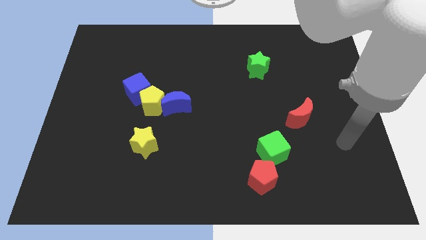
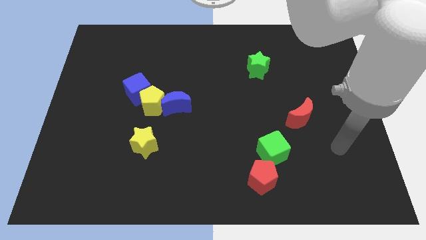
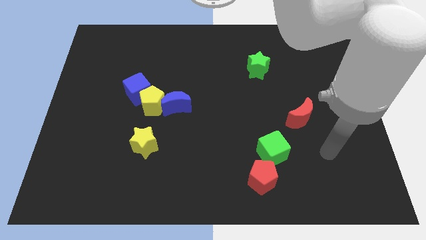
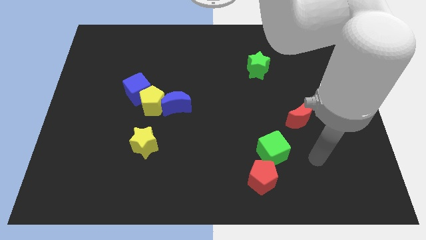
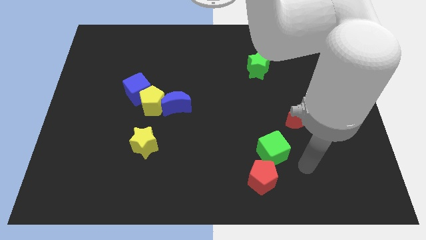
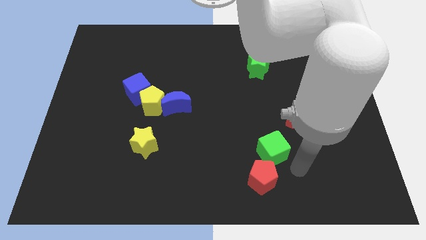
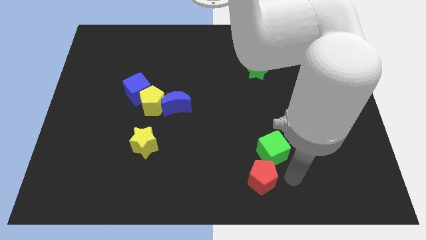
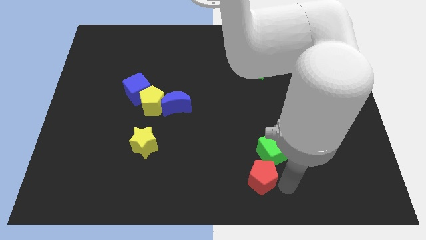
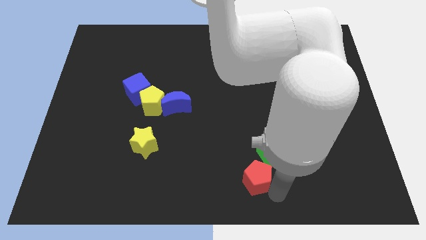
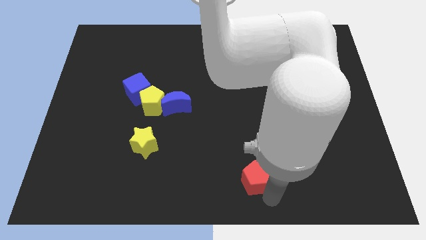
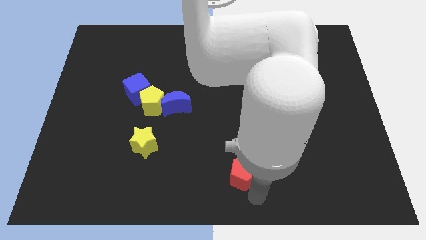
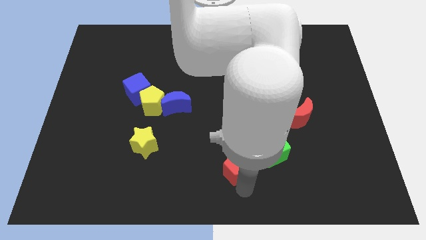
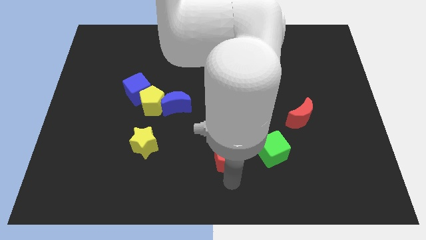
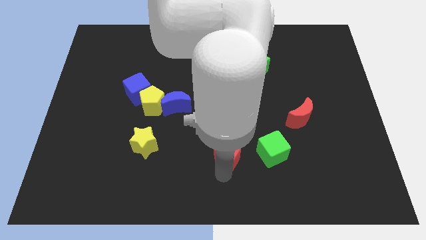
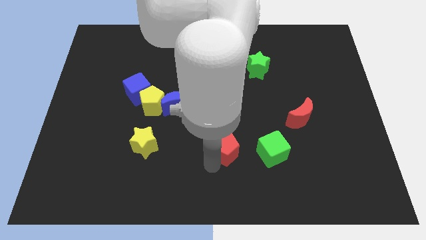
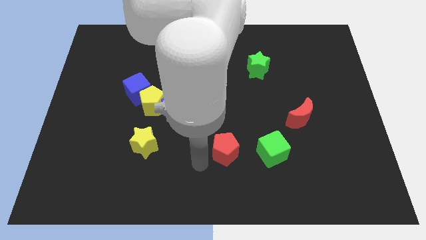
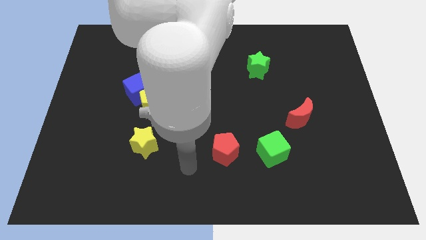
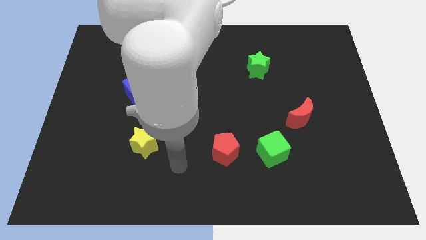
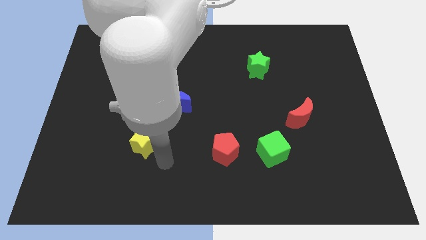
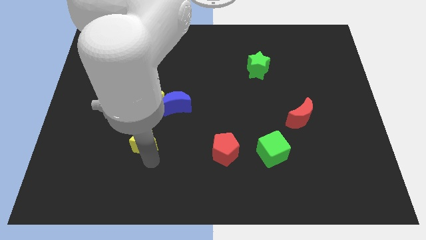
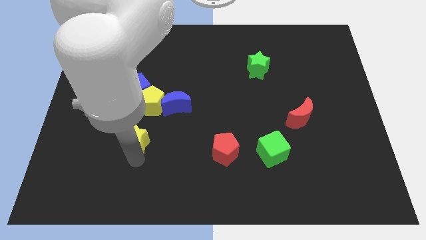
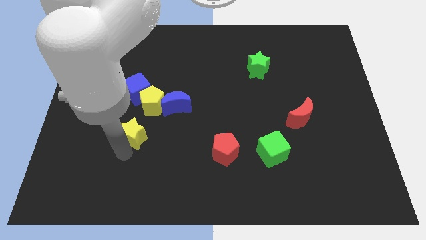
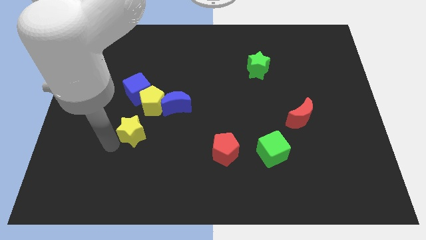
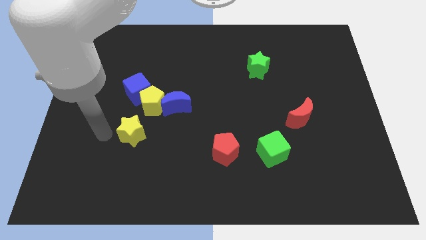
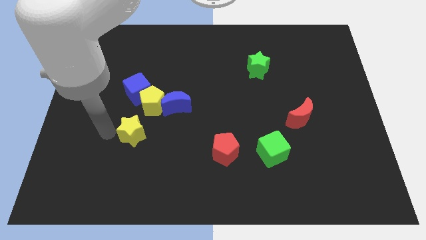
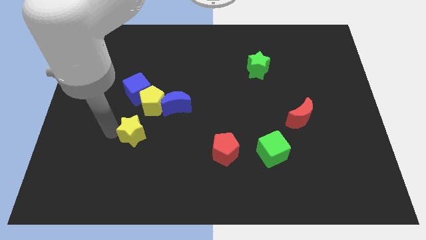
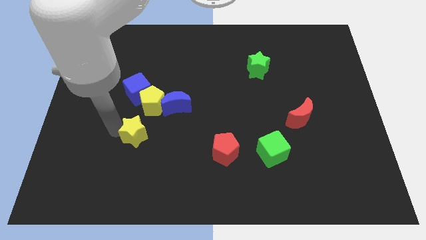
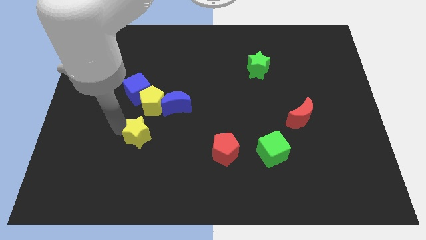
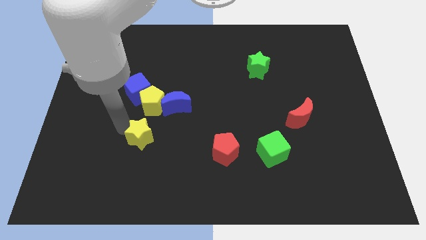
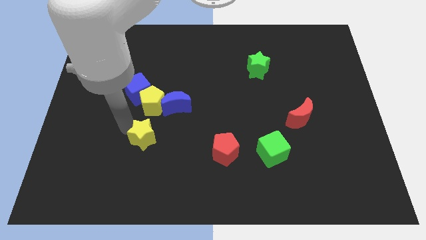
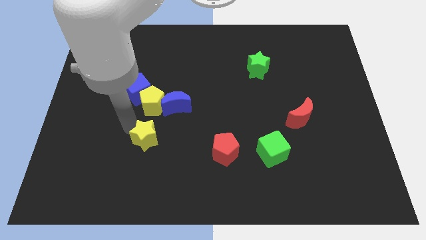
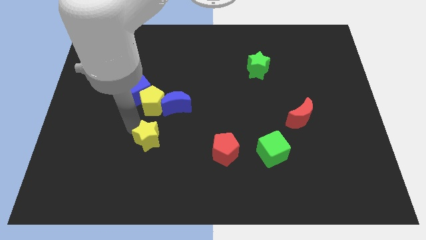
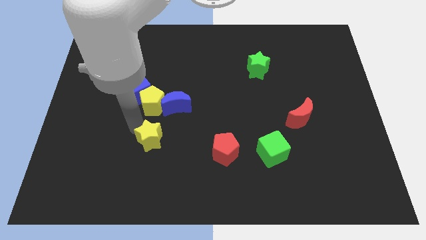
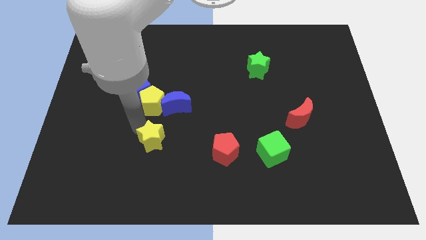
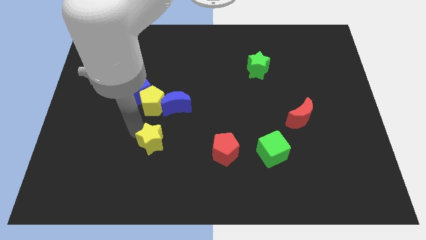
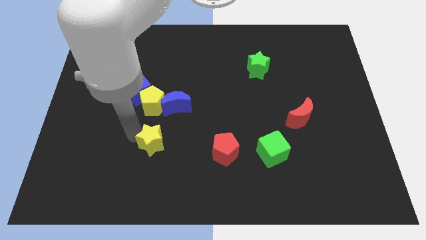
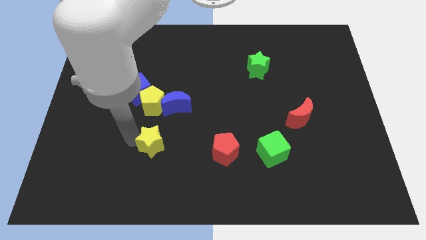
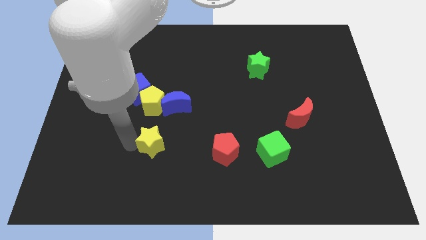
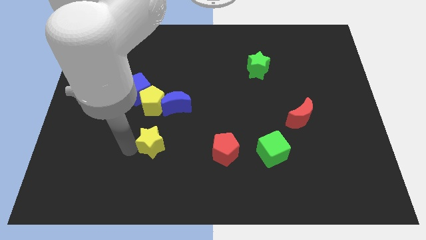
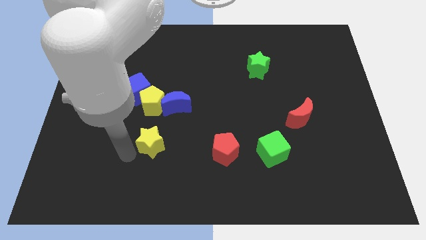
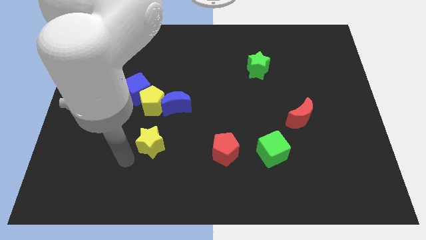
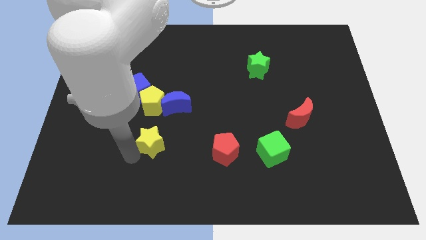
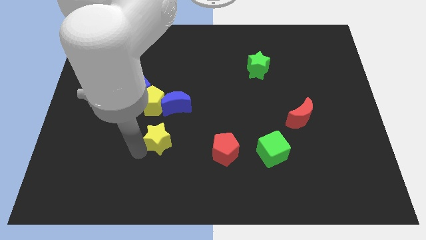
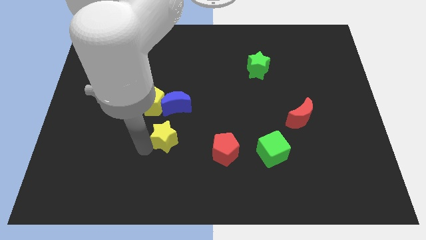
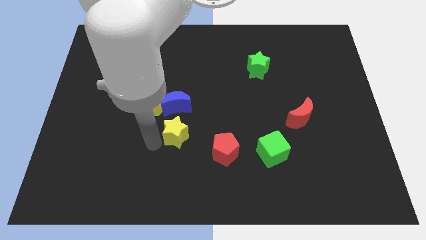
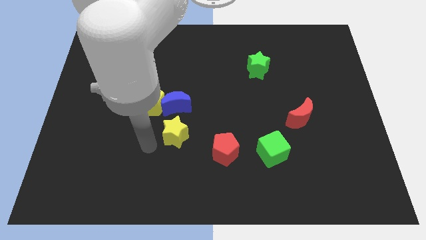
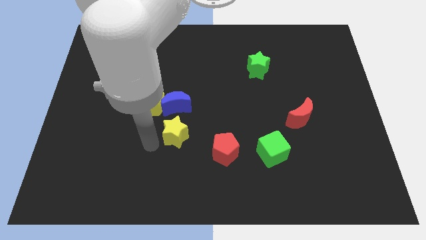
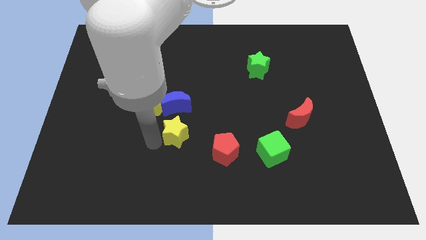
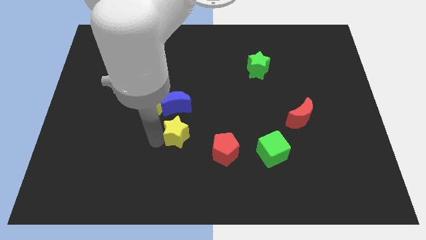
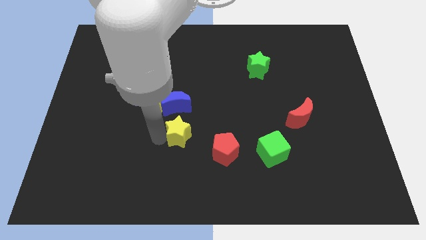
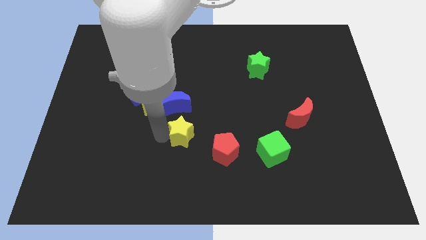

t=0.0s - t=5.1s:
push the yellow star diagonally down and to the right of the blue moon

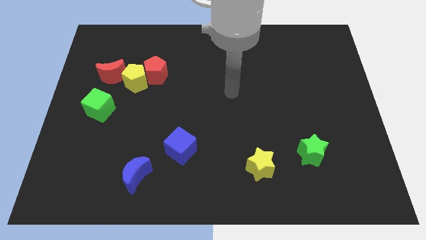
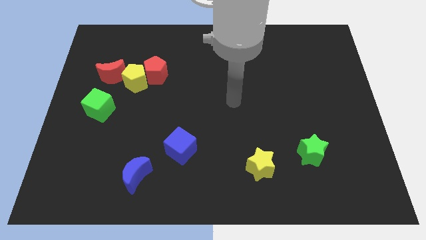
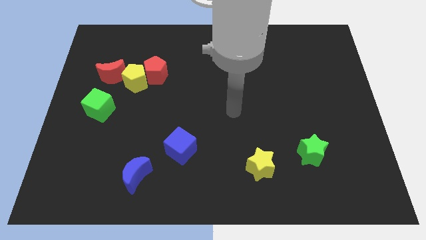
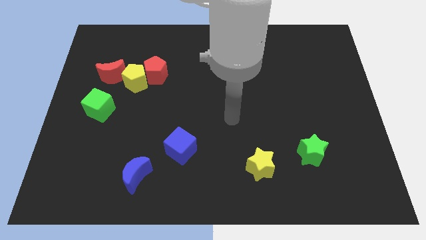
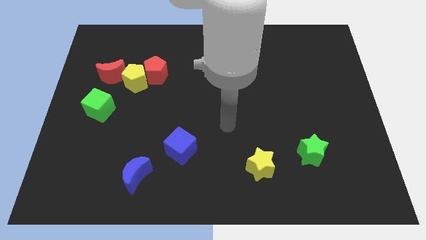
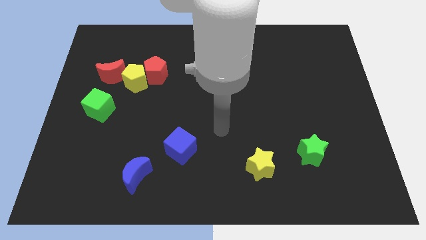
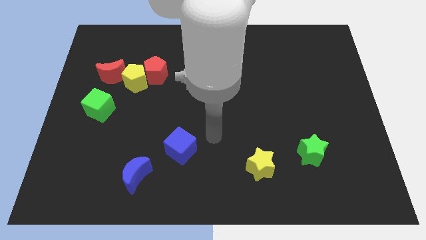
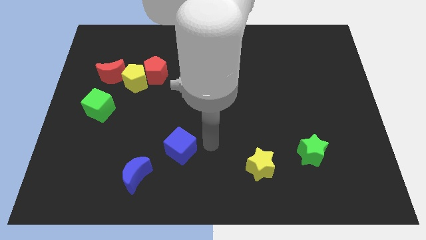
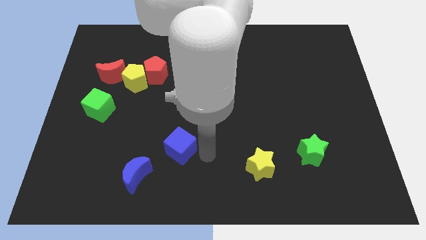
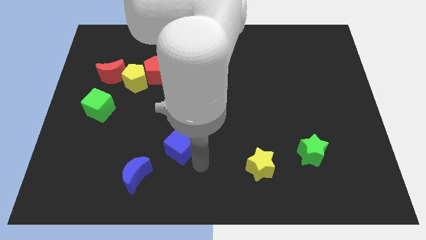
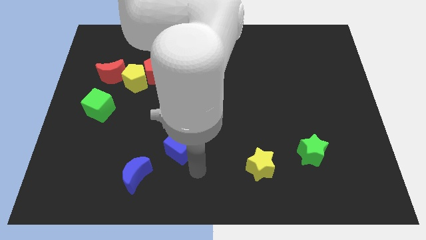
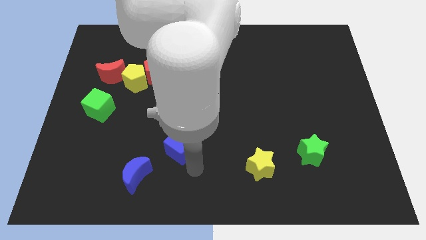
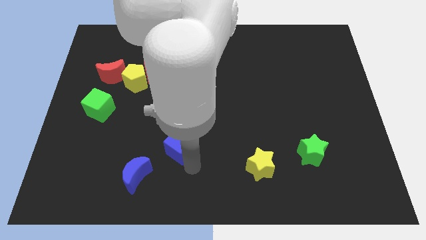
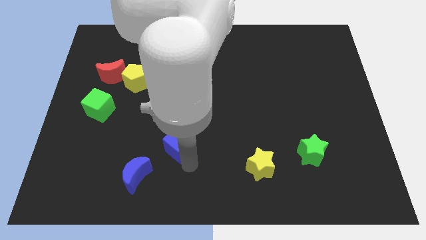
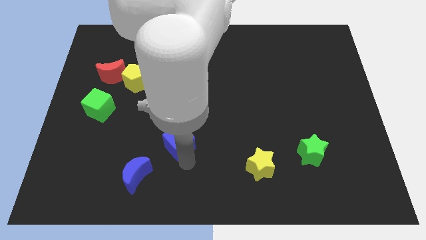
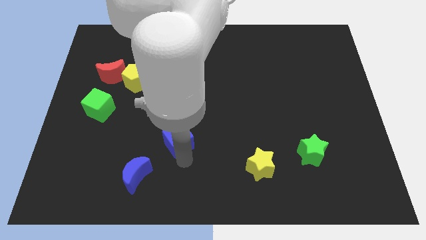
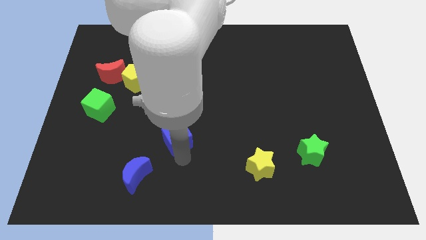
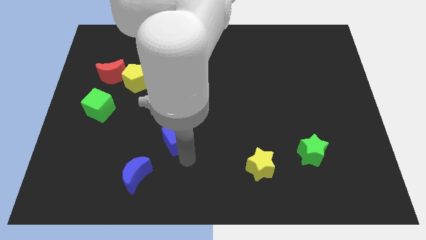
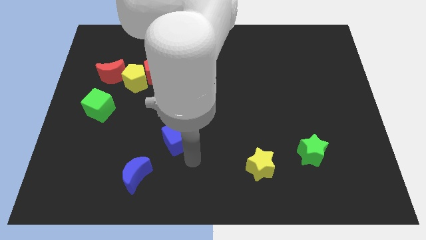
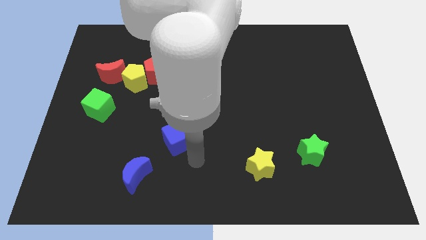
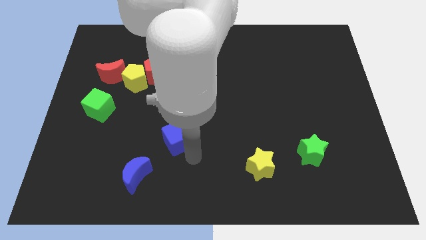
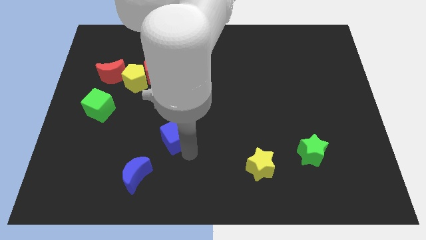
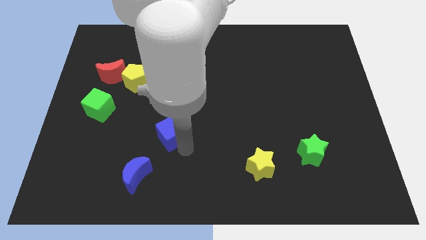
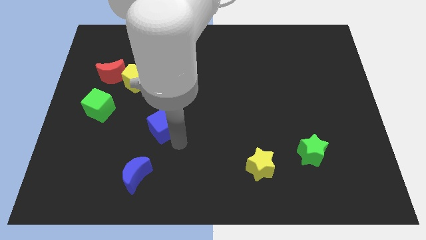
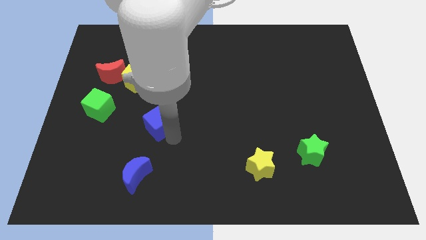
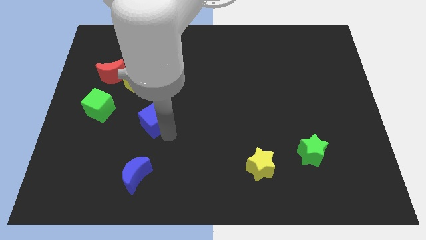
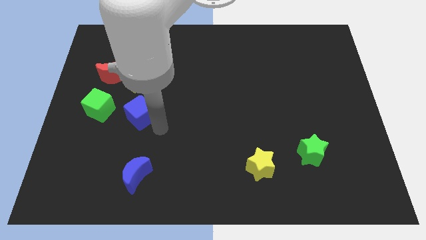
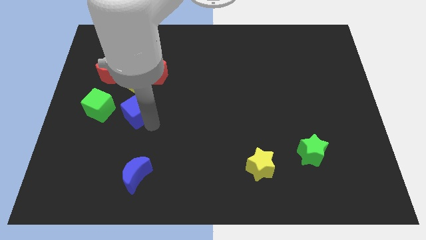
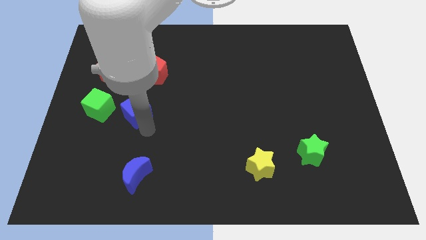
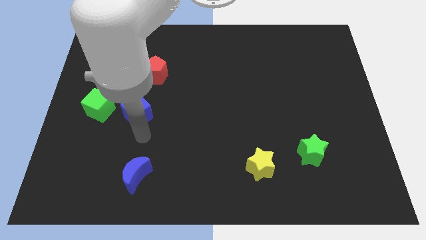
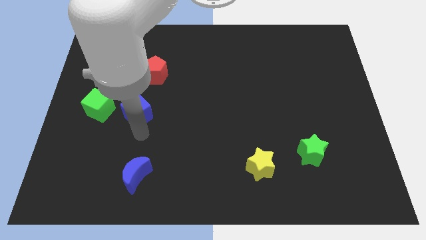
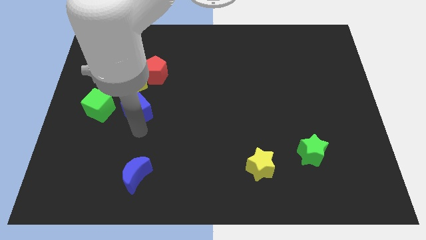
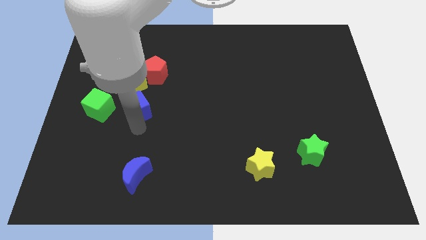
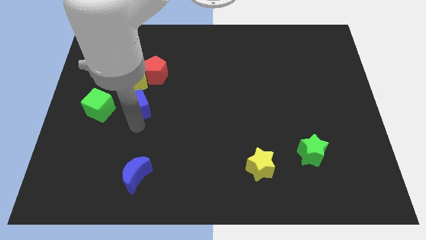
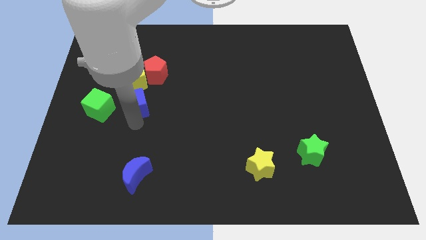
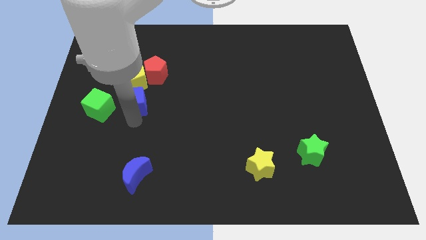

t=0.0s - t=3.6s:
move the blue cube to the bottom left side of the red pentagon
